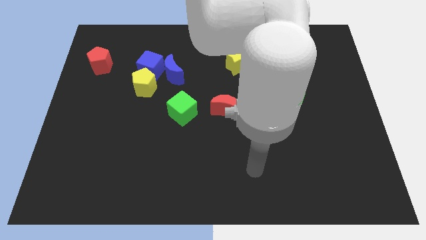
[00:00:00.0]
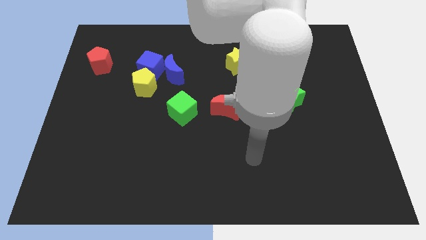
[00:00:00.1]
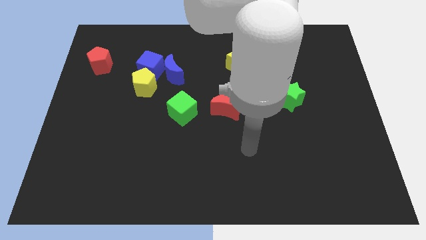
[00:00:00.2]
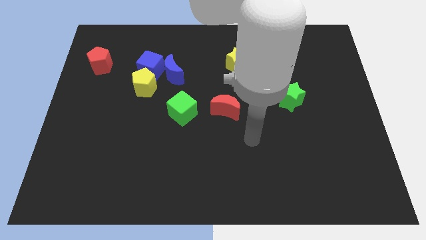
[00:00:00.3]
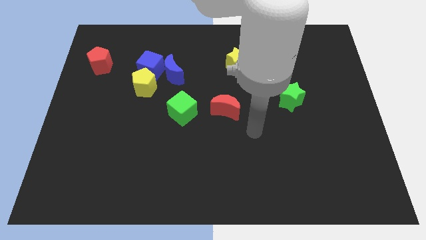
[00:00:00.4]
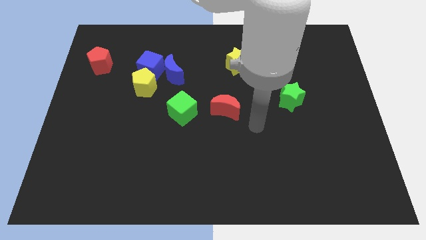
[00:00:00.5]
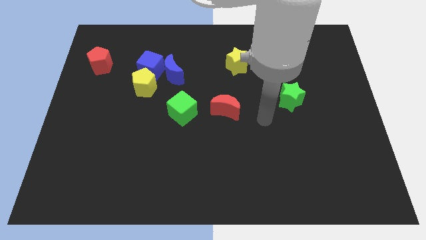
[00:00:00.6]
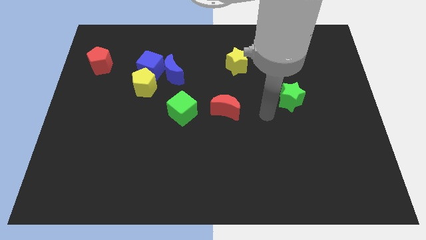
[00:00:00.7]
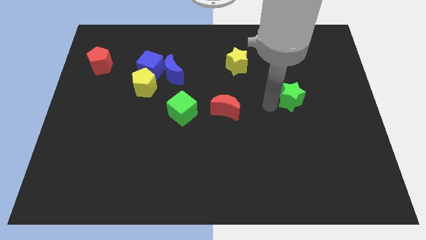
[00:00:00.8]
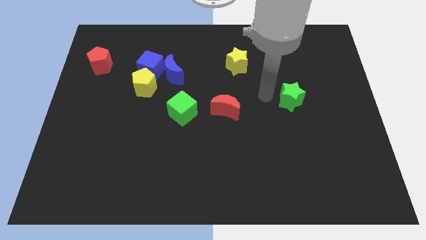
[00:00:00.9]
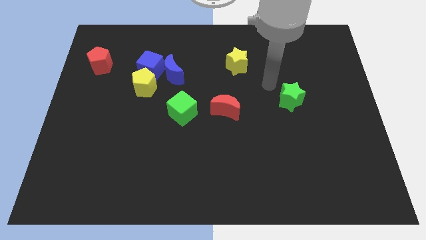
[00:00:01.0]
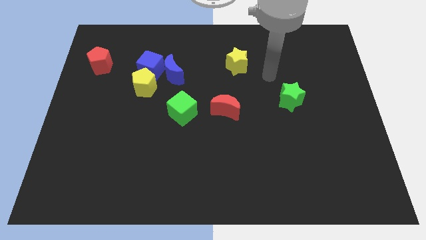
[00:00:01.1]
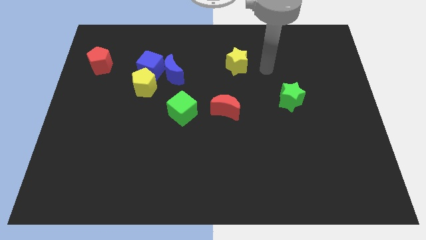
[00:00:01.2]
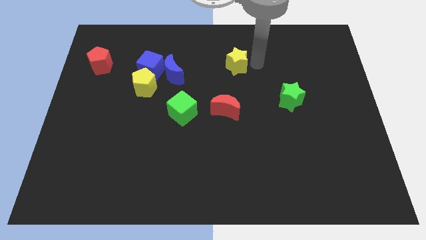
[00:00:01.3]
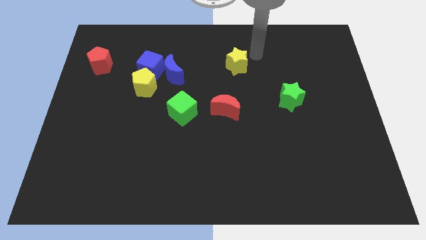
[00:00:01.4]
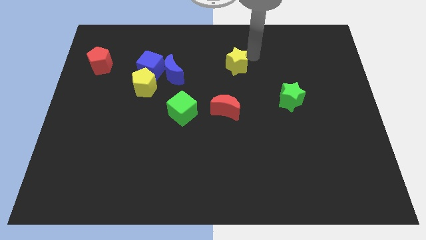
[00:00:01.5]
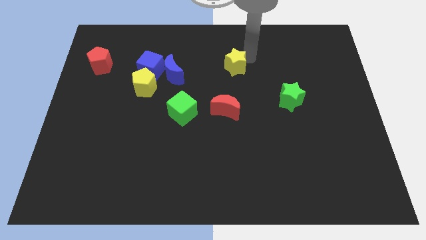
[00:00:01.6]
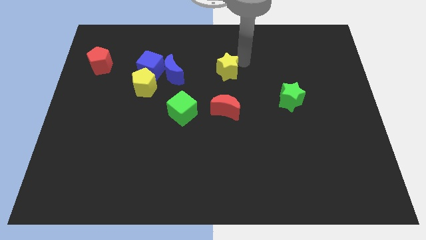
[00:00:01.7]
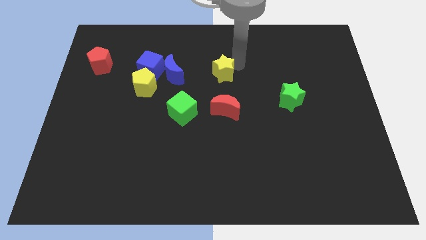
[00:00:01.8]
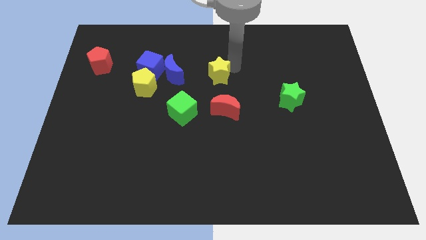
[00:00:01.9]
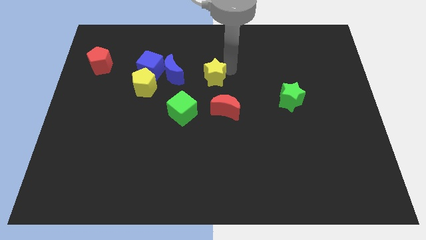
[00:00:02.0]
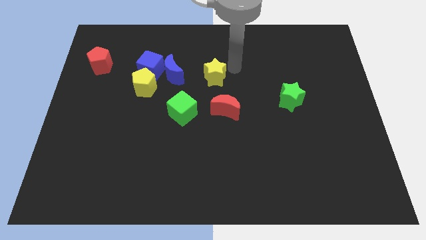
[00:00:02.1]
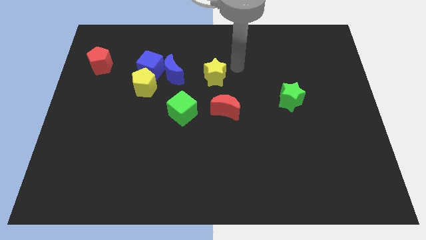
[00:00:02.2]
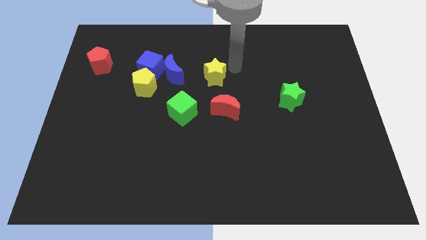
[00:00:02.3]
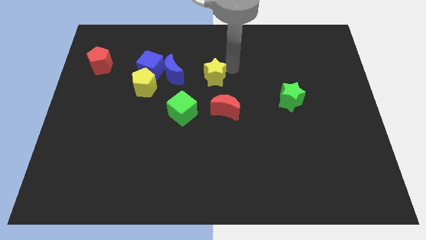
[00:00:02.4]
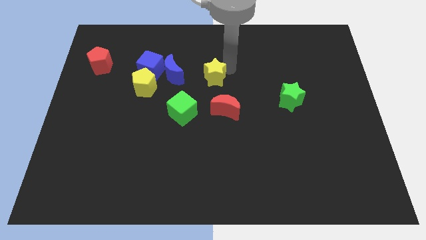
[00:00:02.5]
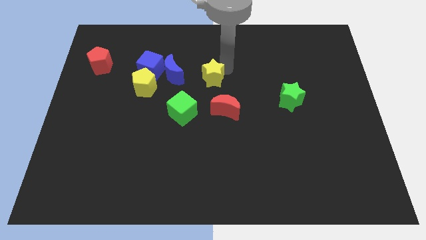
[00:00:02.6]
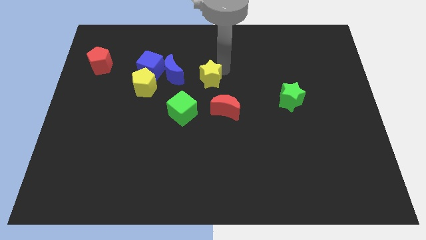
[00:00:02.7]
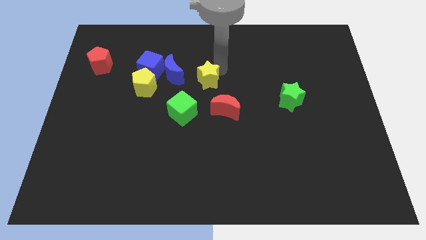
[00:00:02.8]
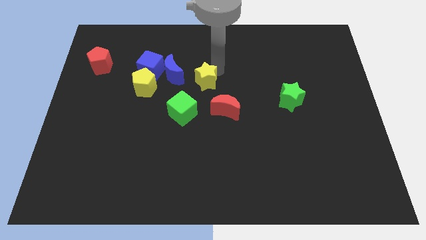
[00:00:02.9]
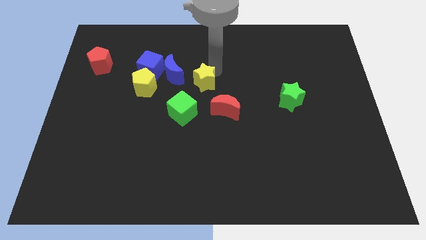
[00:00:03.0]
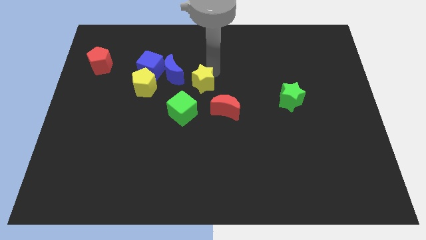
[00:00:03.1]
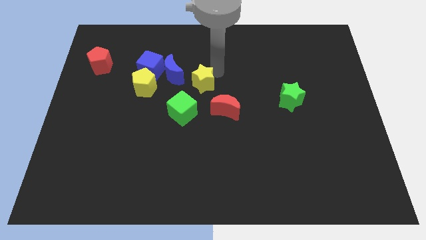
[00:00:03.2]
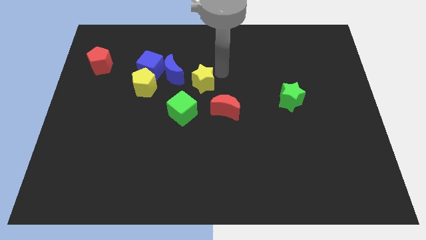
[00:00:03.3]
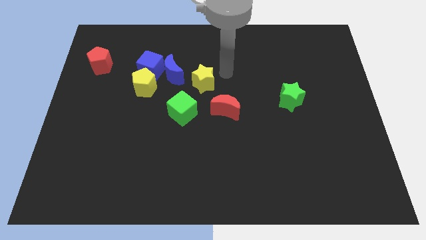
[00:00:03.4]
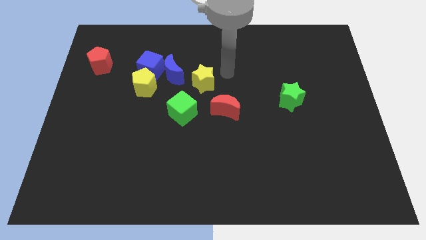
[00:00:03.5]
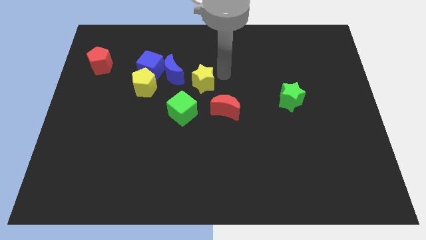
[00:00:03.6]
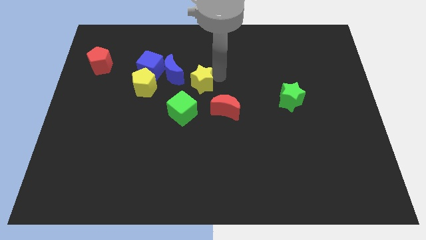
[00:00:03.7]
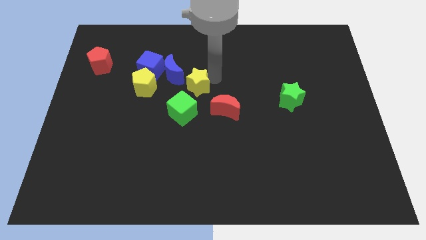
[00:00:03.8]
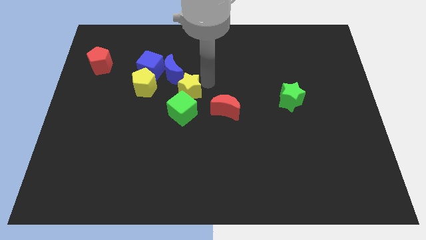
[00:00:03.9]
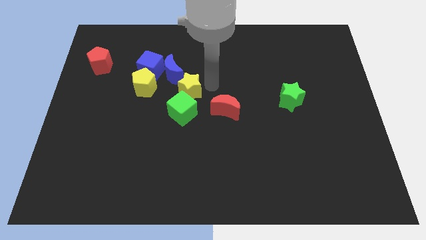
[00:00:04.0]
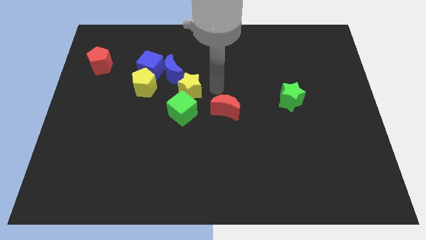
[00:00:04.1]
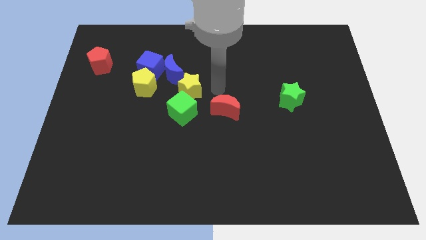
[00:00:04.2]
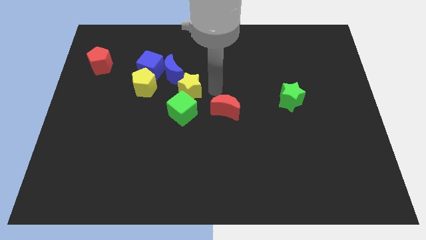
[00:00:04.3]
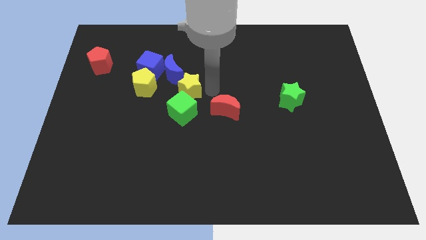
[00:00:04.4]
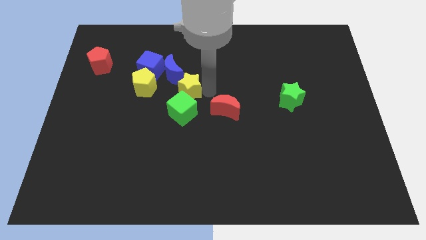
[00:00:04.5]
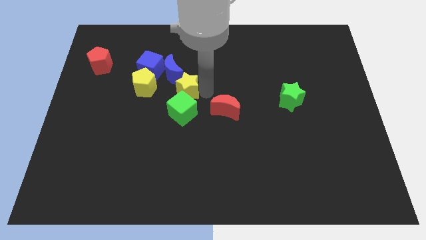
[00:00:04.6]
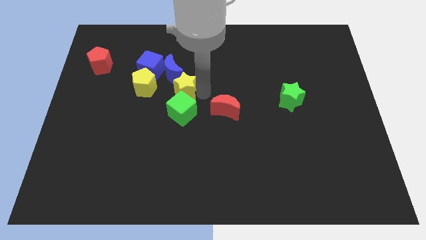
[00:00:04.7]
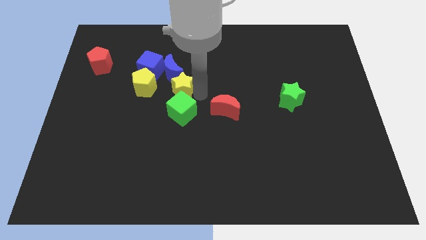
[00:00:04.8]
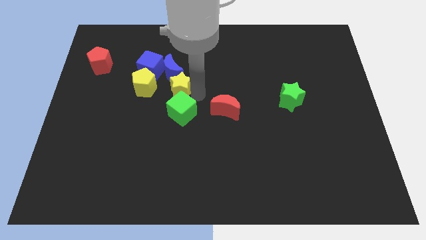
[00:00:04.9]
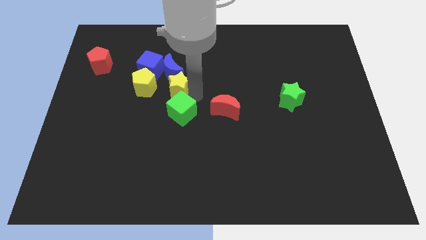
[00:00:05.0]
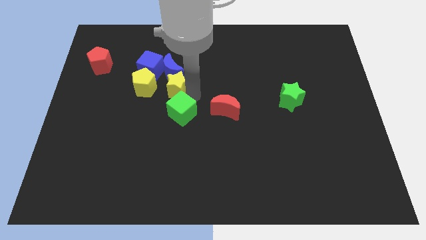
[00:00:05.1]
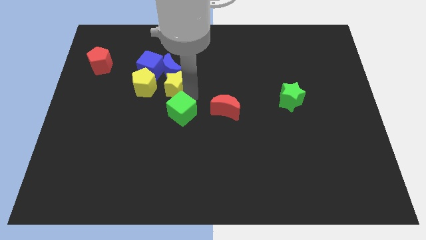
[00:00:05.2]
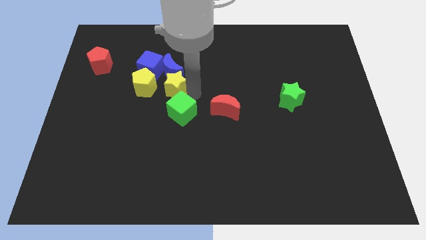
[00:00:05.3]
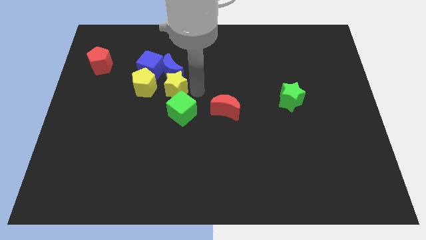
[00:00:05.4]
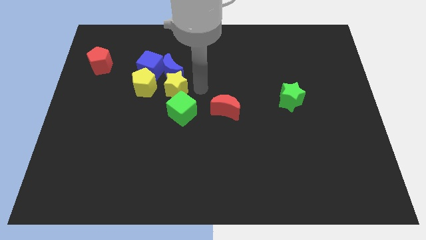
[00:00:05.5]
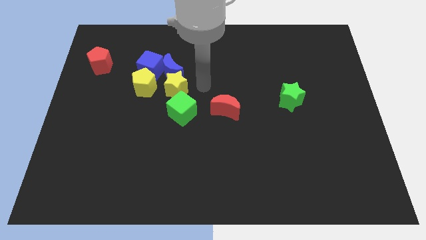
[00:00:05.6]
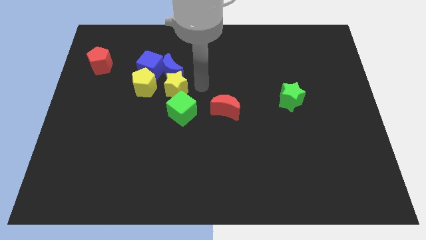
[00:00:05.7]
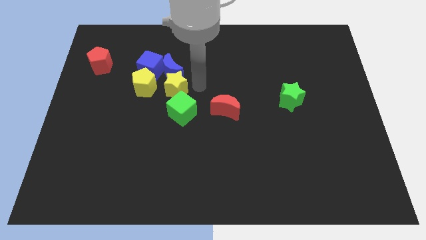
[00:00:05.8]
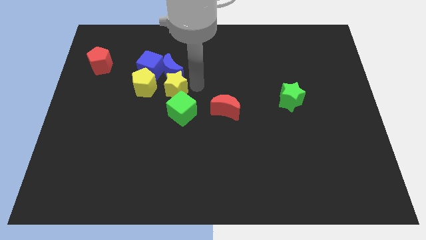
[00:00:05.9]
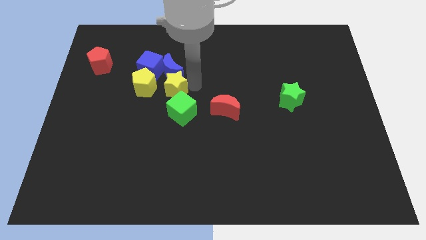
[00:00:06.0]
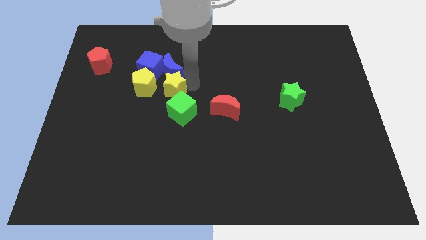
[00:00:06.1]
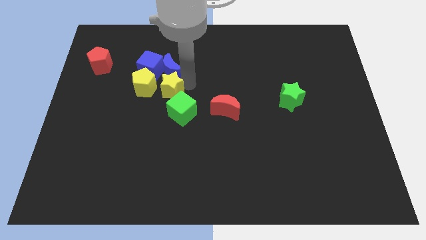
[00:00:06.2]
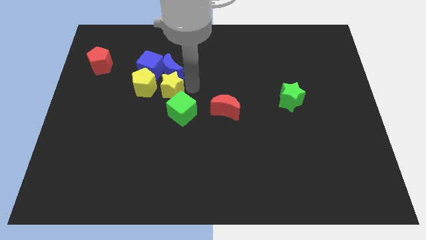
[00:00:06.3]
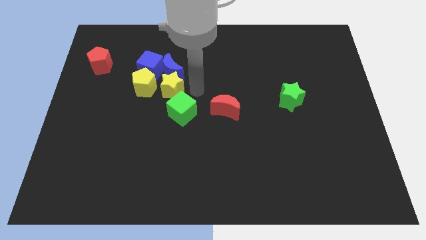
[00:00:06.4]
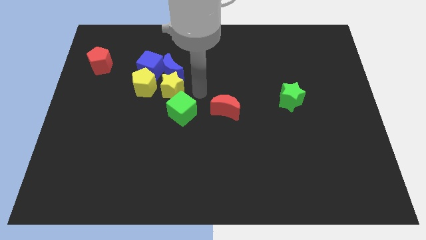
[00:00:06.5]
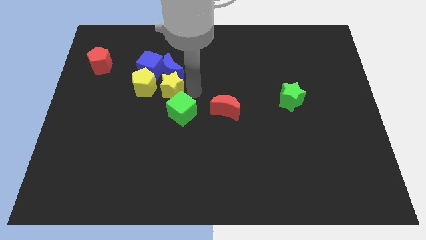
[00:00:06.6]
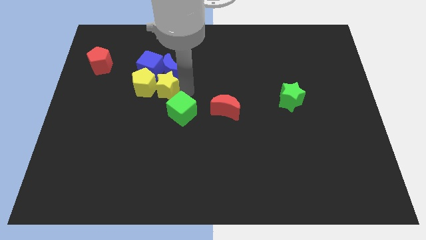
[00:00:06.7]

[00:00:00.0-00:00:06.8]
move the yellow star close to the yellow pentagon

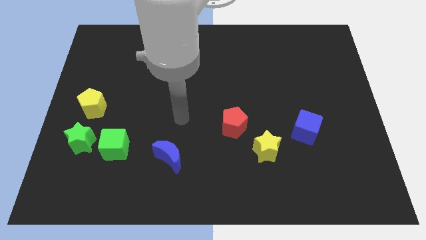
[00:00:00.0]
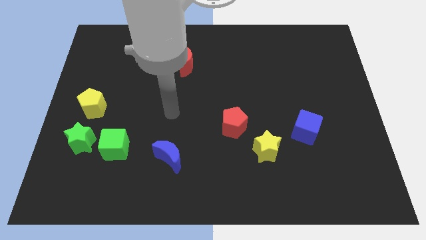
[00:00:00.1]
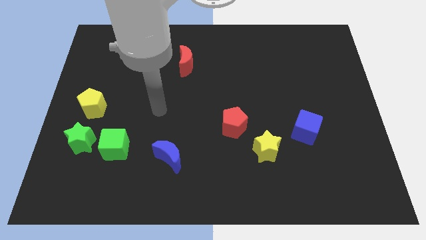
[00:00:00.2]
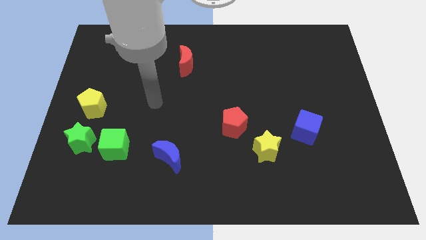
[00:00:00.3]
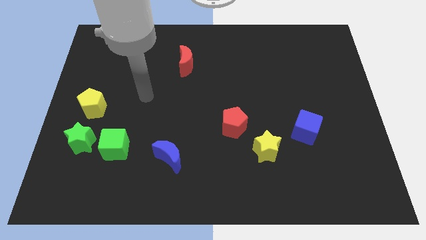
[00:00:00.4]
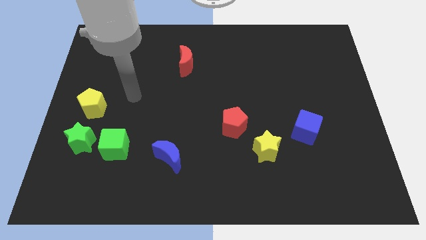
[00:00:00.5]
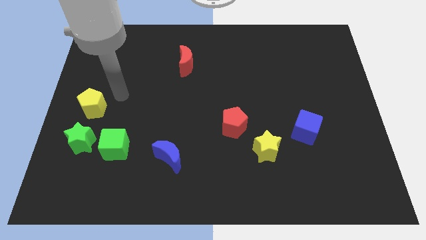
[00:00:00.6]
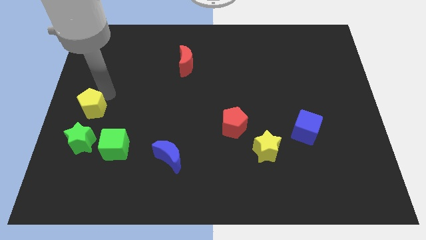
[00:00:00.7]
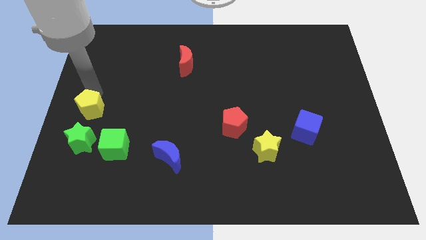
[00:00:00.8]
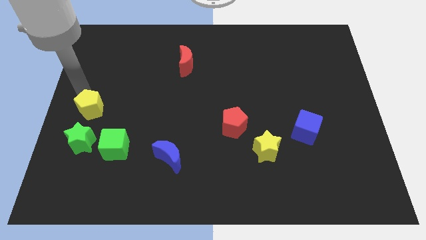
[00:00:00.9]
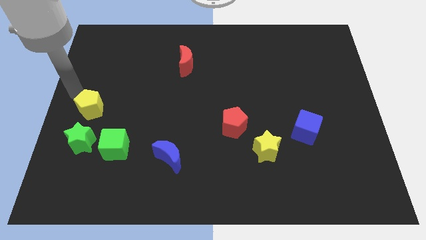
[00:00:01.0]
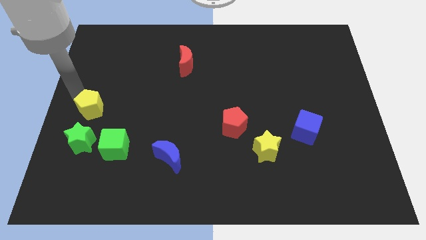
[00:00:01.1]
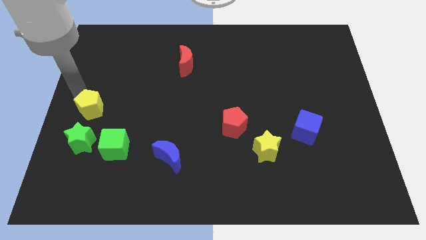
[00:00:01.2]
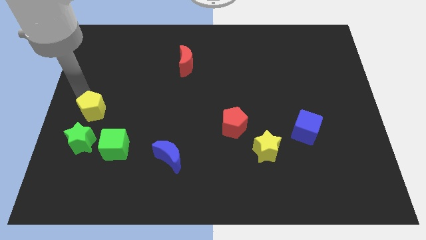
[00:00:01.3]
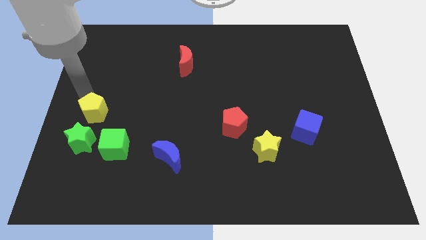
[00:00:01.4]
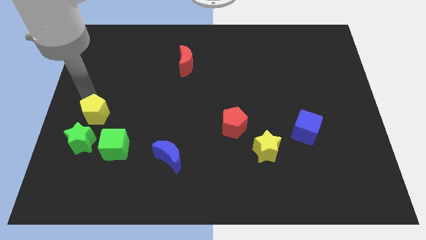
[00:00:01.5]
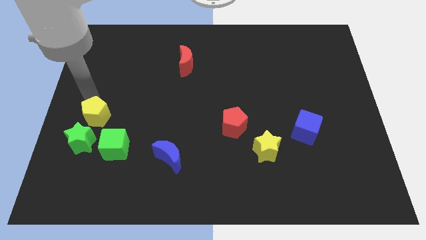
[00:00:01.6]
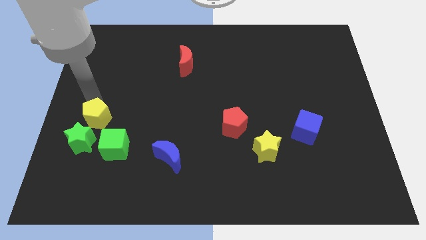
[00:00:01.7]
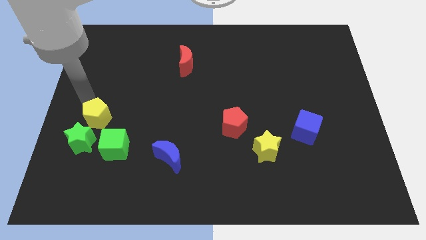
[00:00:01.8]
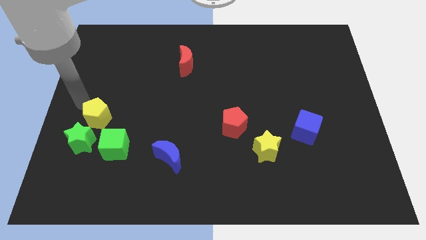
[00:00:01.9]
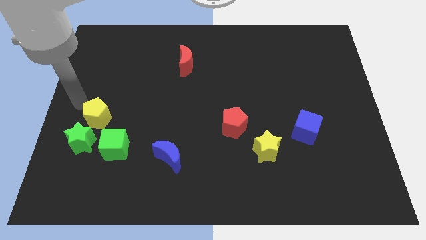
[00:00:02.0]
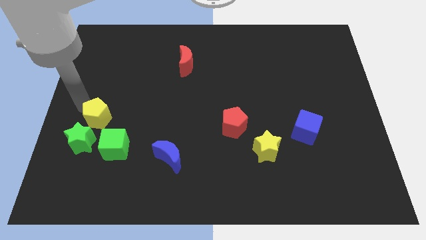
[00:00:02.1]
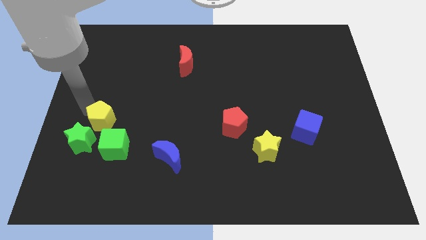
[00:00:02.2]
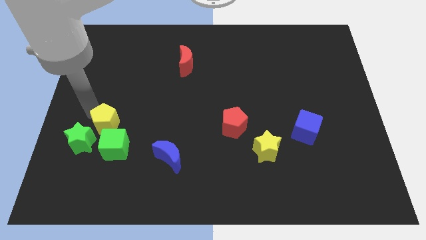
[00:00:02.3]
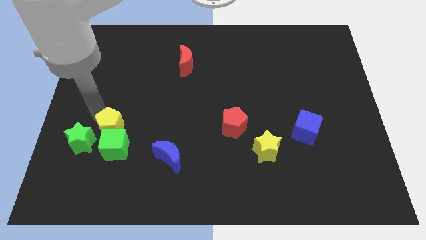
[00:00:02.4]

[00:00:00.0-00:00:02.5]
move the yellow pentagon to the green cube
